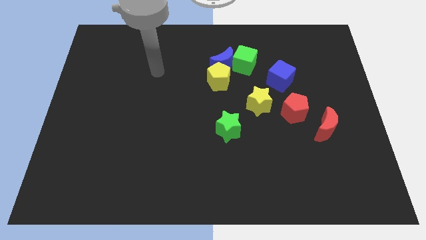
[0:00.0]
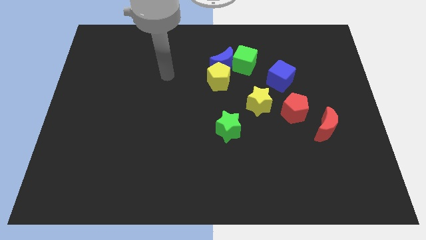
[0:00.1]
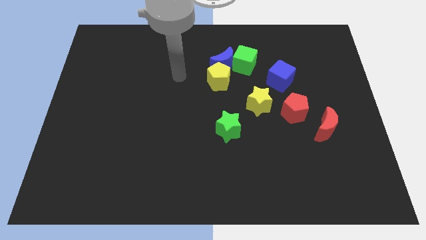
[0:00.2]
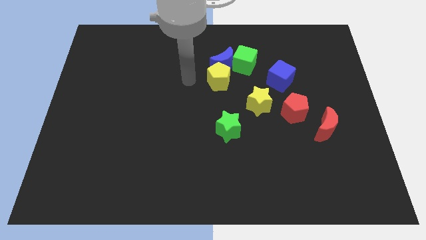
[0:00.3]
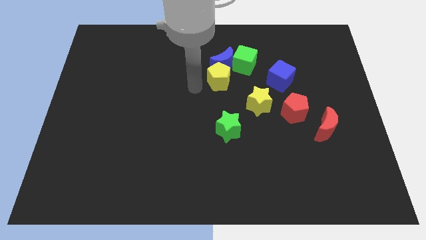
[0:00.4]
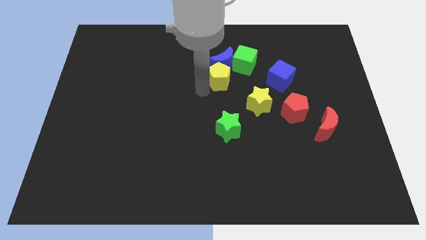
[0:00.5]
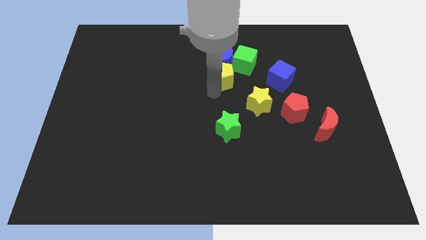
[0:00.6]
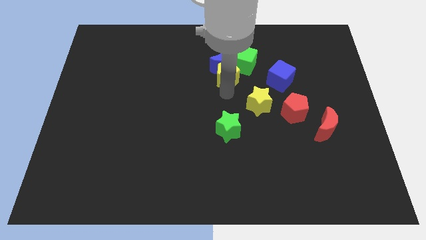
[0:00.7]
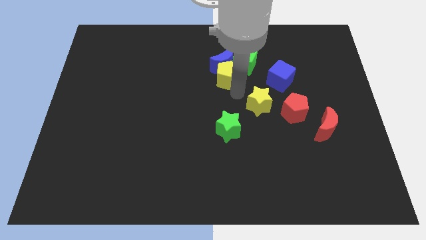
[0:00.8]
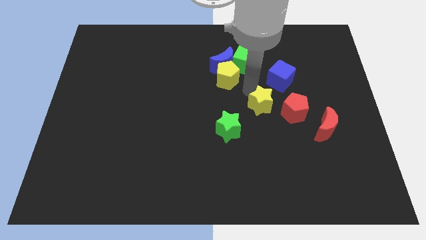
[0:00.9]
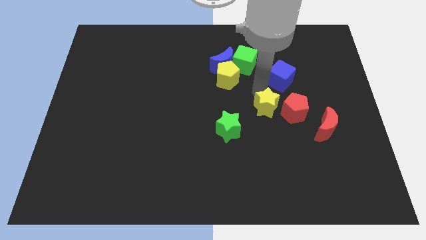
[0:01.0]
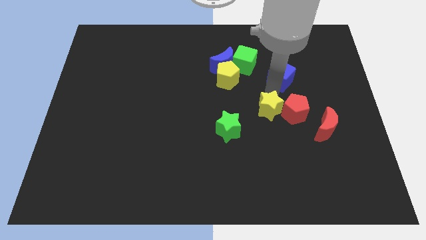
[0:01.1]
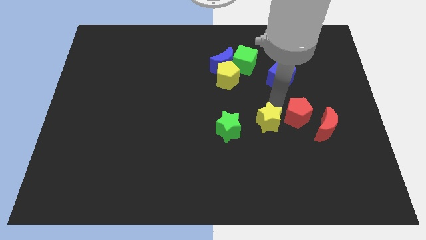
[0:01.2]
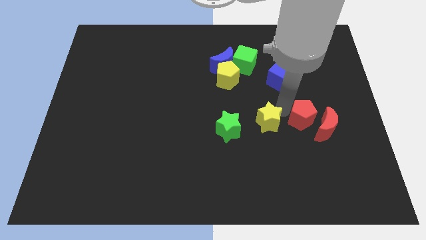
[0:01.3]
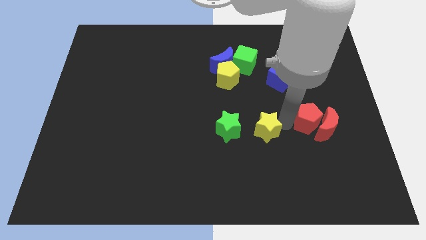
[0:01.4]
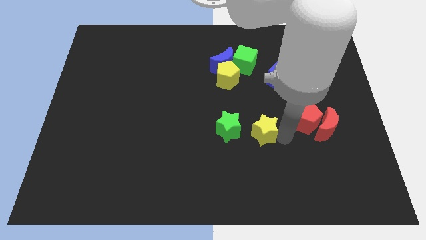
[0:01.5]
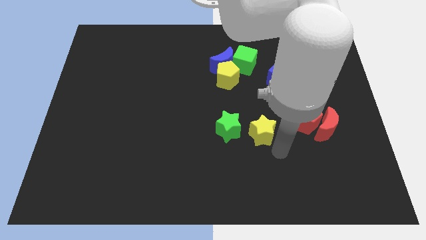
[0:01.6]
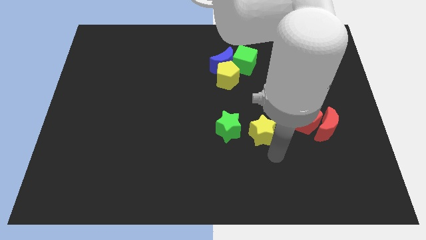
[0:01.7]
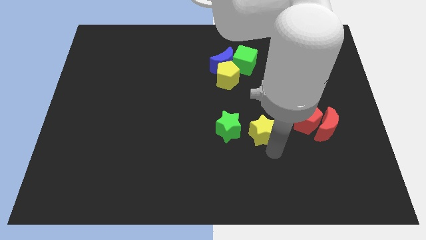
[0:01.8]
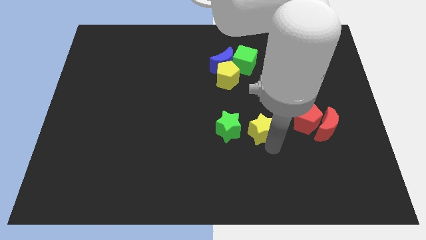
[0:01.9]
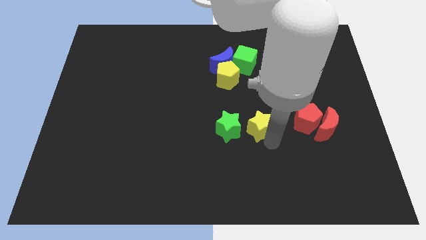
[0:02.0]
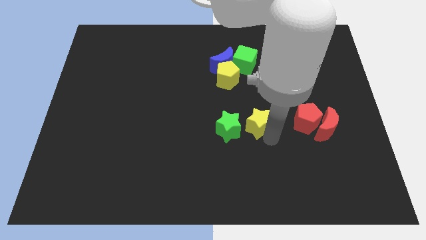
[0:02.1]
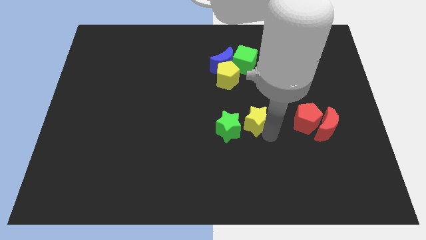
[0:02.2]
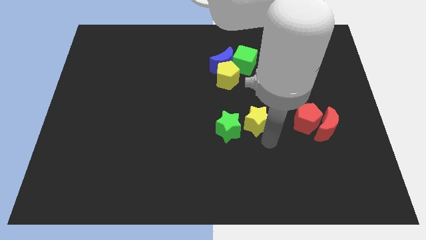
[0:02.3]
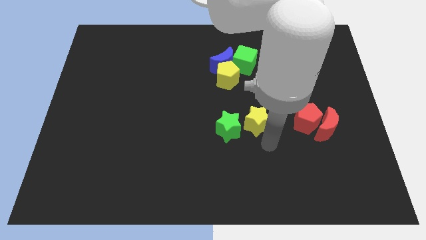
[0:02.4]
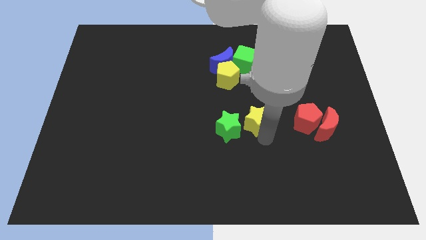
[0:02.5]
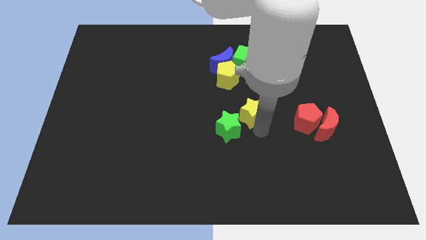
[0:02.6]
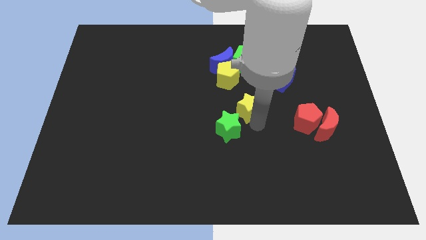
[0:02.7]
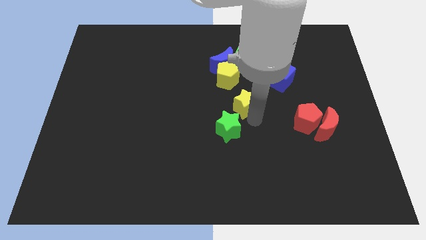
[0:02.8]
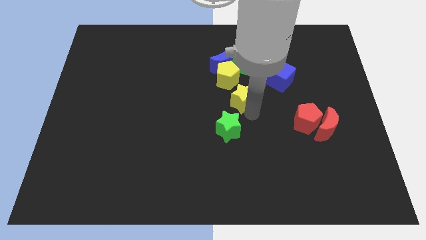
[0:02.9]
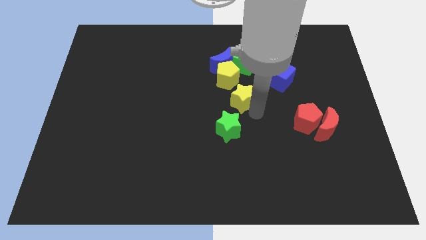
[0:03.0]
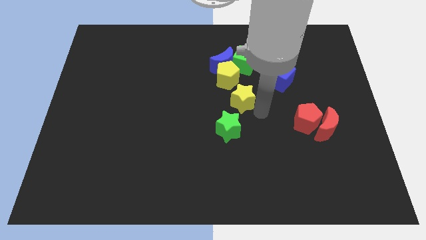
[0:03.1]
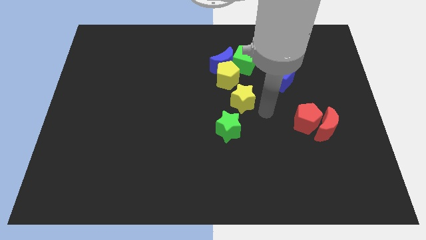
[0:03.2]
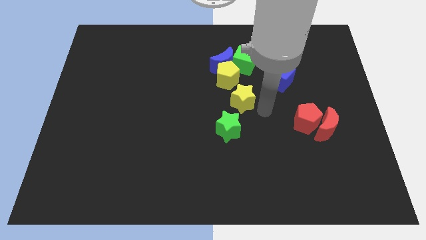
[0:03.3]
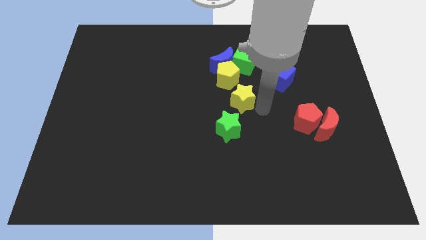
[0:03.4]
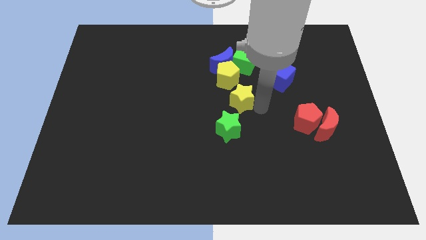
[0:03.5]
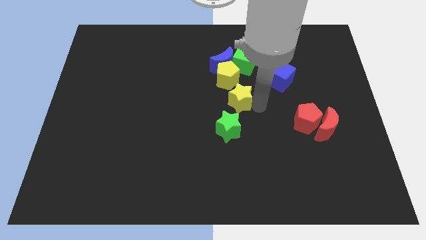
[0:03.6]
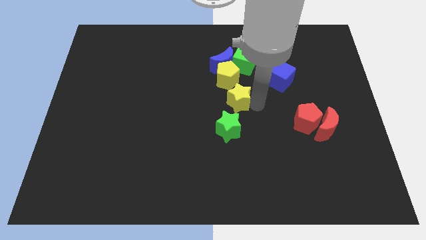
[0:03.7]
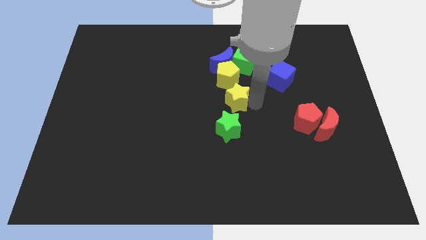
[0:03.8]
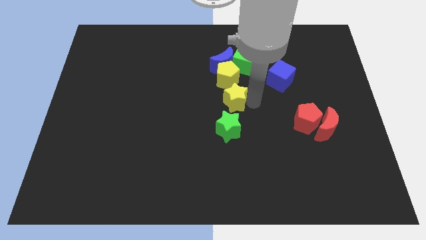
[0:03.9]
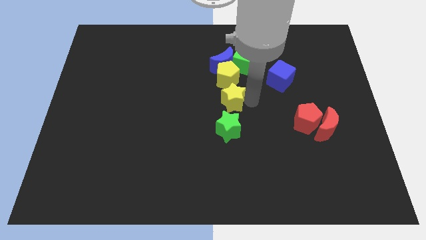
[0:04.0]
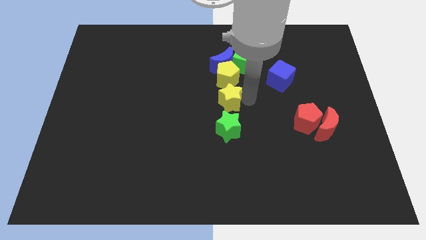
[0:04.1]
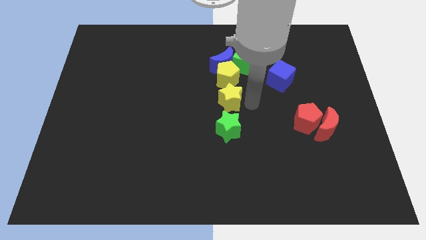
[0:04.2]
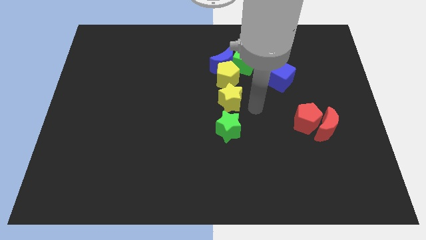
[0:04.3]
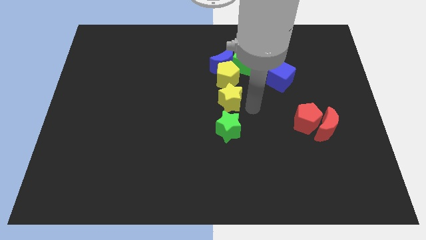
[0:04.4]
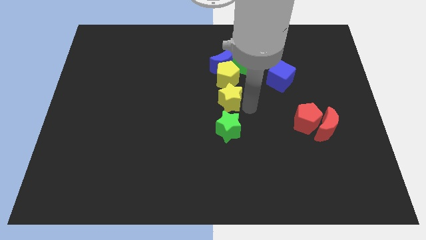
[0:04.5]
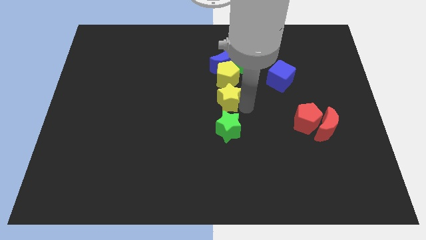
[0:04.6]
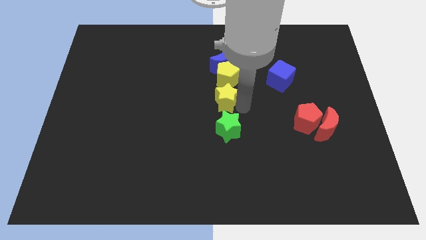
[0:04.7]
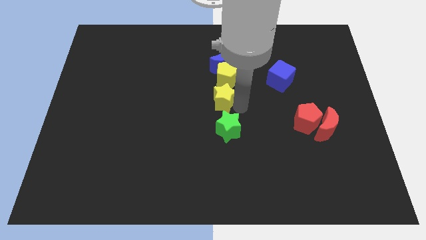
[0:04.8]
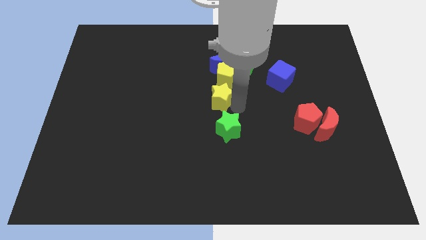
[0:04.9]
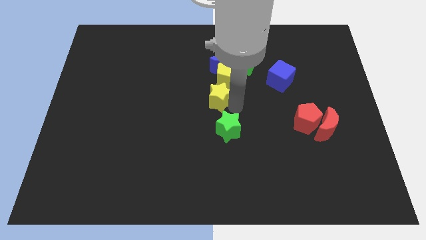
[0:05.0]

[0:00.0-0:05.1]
push the yellow star somewhat up and then left

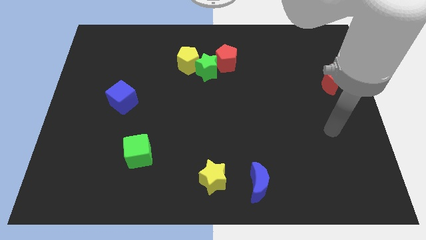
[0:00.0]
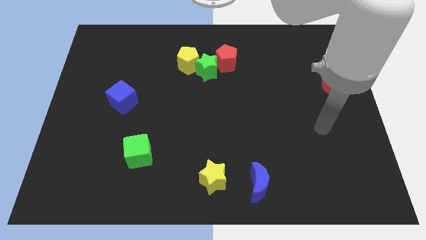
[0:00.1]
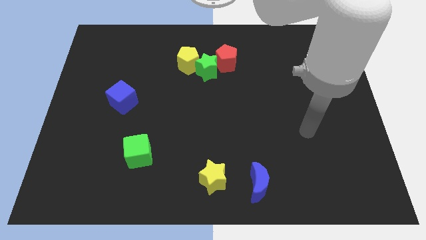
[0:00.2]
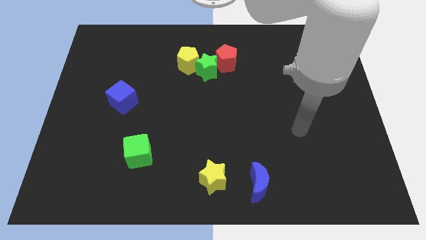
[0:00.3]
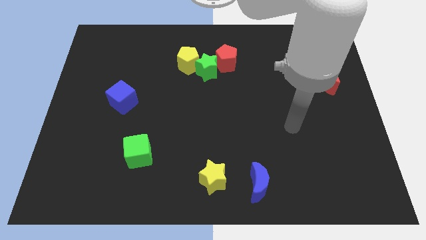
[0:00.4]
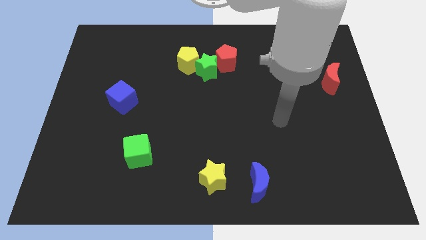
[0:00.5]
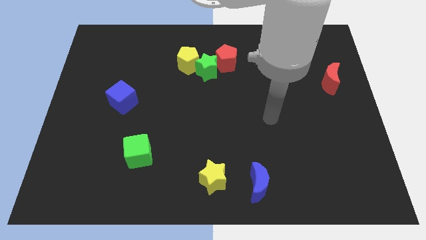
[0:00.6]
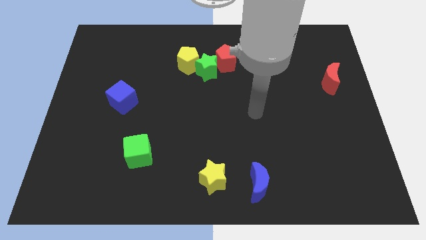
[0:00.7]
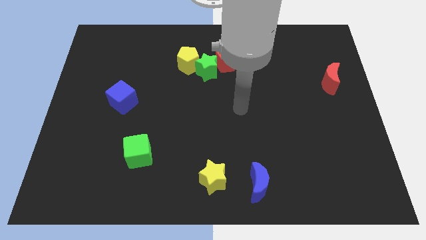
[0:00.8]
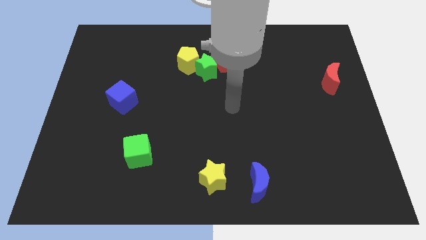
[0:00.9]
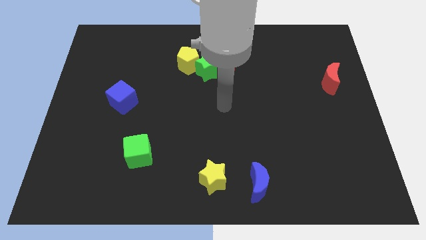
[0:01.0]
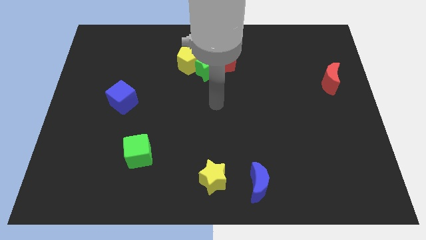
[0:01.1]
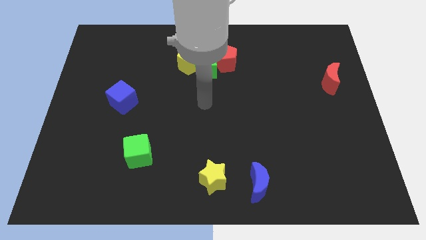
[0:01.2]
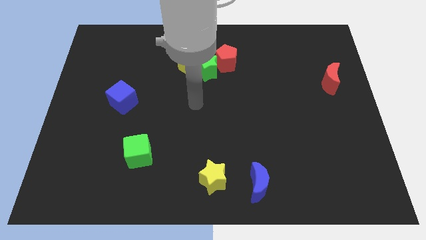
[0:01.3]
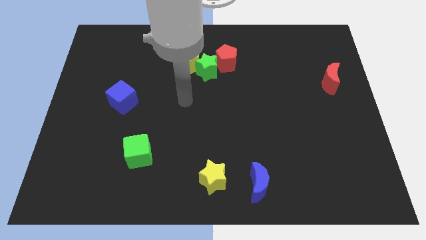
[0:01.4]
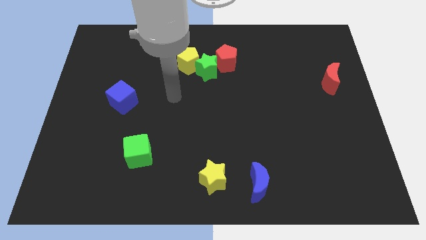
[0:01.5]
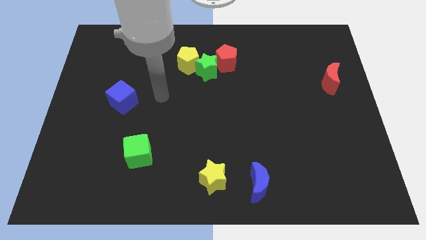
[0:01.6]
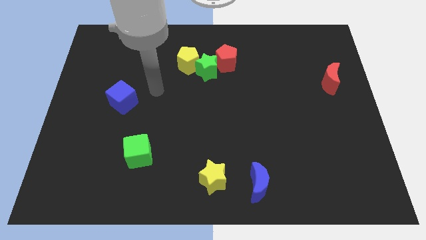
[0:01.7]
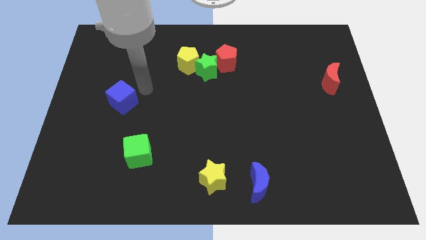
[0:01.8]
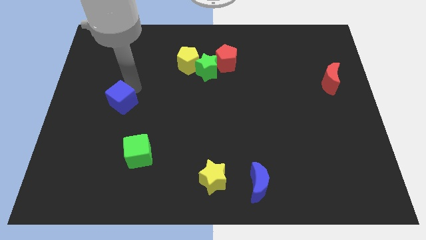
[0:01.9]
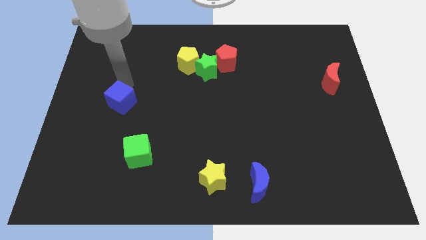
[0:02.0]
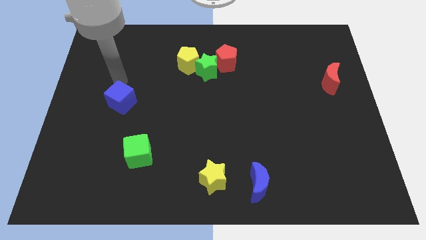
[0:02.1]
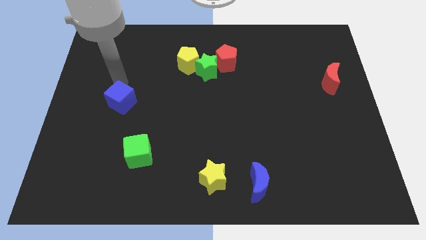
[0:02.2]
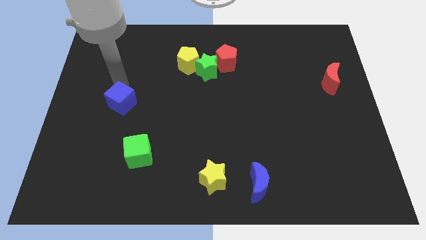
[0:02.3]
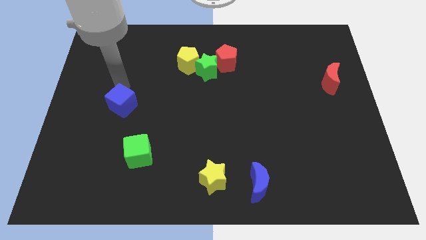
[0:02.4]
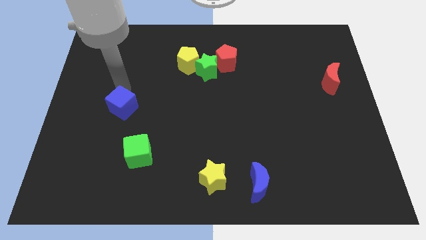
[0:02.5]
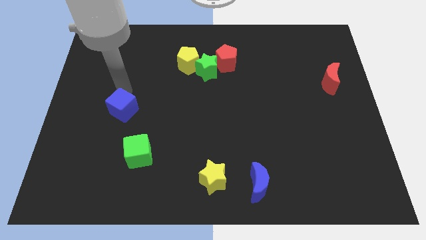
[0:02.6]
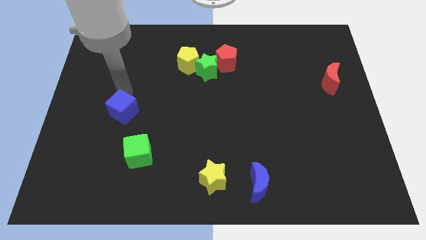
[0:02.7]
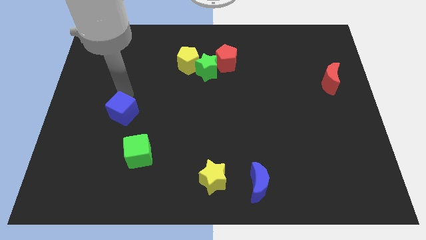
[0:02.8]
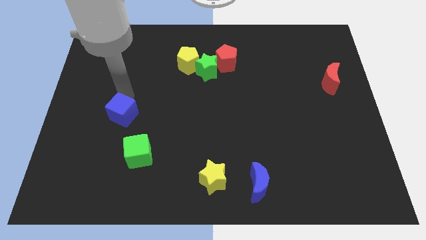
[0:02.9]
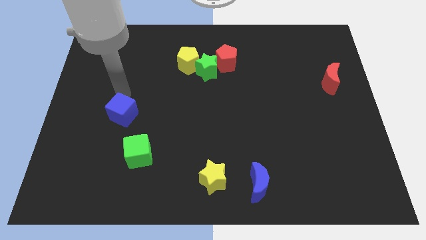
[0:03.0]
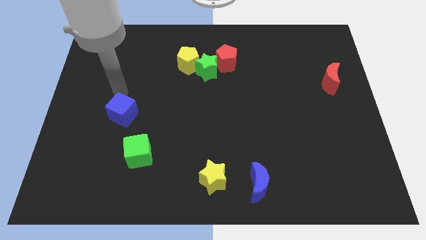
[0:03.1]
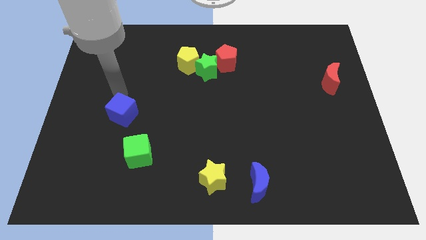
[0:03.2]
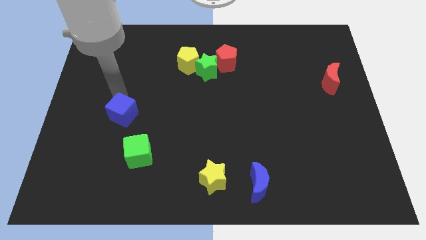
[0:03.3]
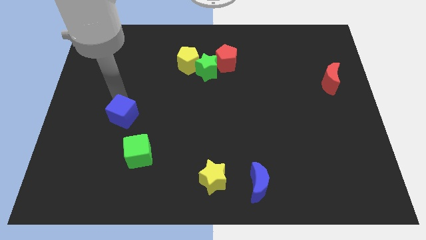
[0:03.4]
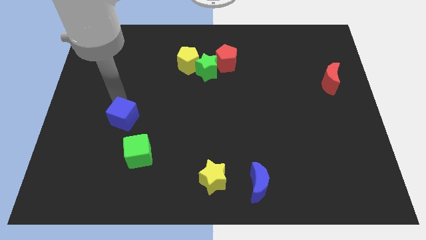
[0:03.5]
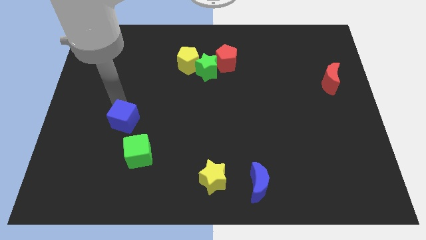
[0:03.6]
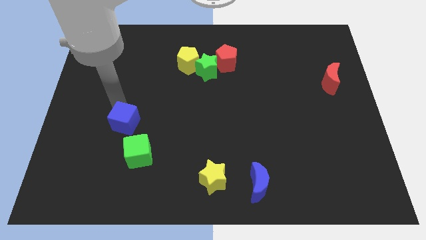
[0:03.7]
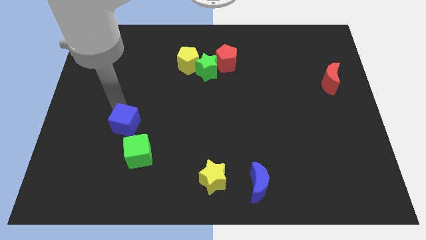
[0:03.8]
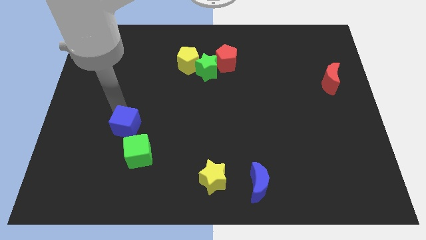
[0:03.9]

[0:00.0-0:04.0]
slide the blue cube downwards a little bit
